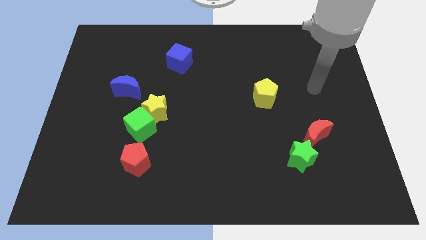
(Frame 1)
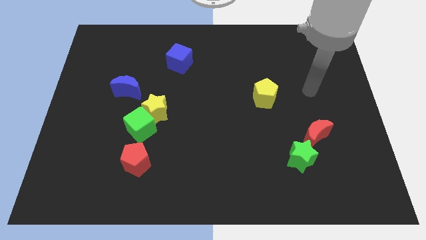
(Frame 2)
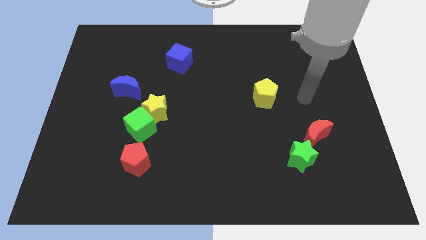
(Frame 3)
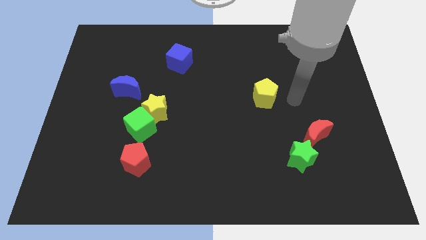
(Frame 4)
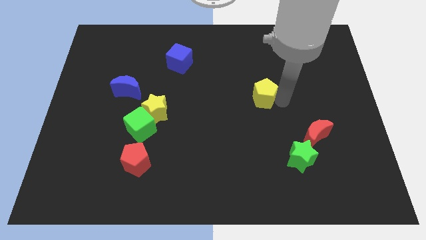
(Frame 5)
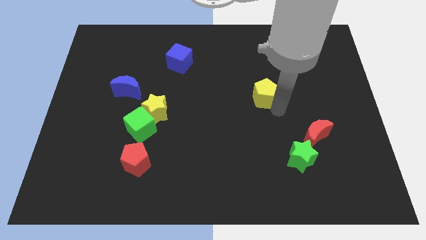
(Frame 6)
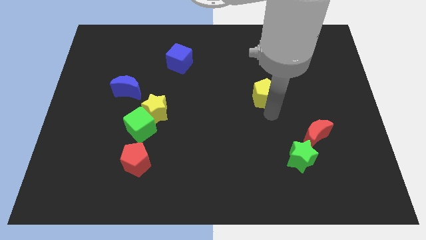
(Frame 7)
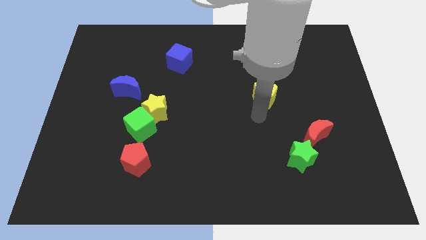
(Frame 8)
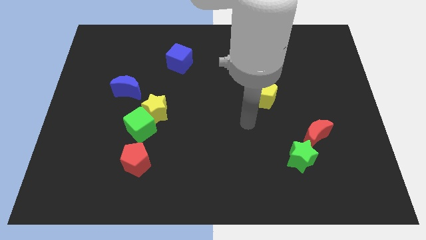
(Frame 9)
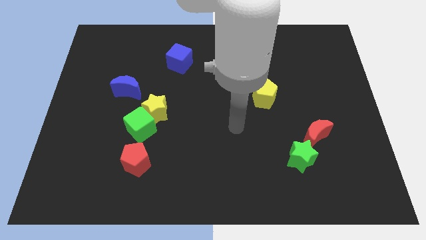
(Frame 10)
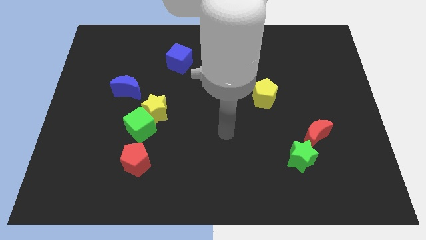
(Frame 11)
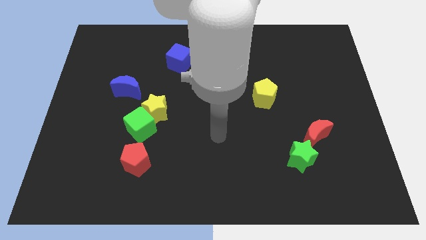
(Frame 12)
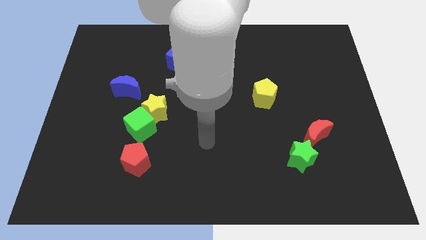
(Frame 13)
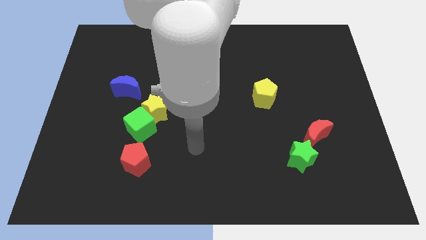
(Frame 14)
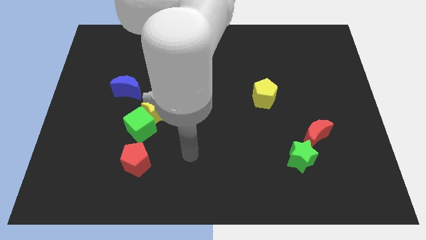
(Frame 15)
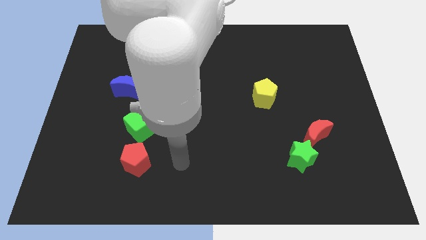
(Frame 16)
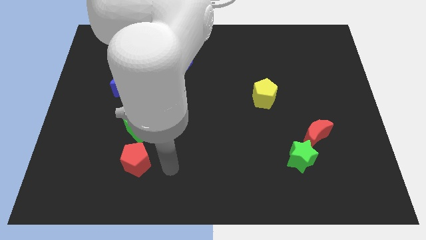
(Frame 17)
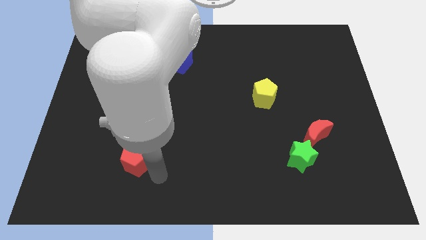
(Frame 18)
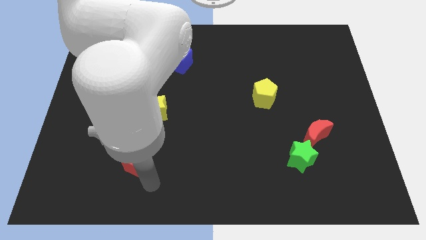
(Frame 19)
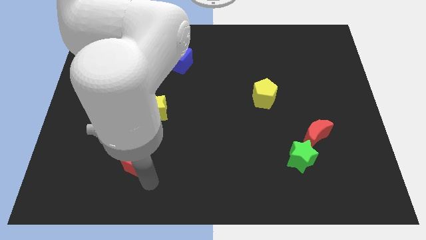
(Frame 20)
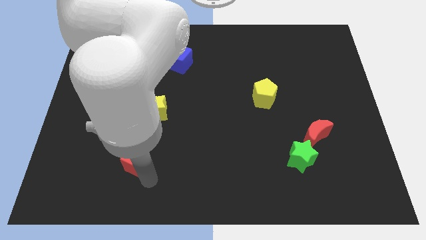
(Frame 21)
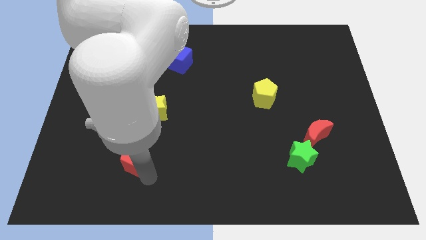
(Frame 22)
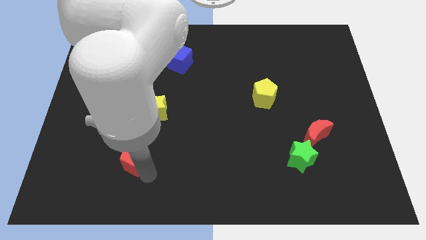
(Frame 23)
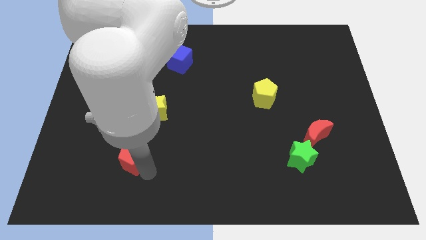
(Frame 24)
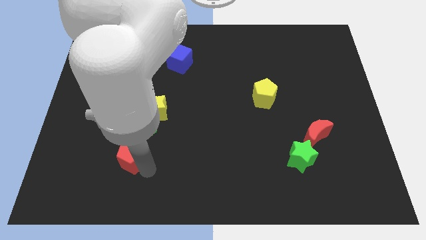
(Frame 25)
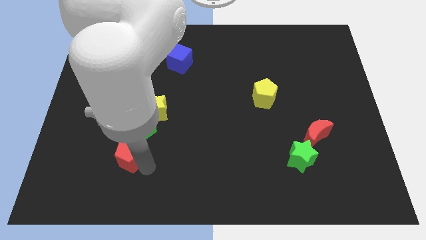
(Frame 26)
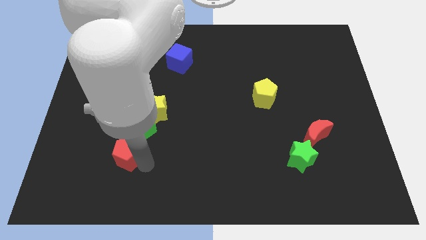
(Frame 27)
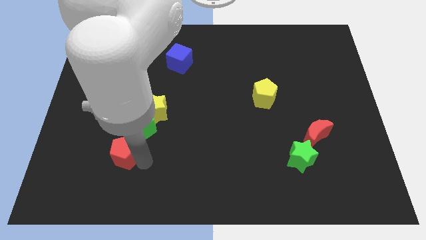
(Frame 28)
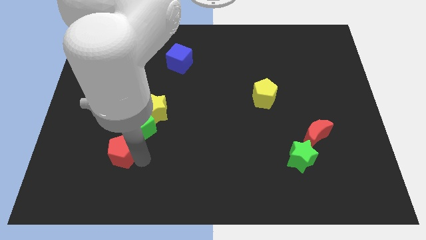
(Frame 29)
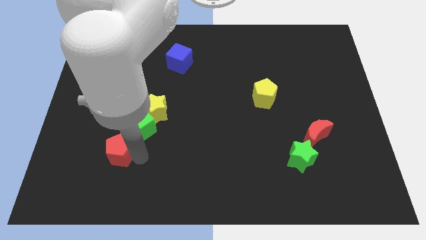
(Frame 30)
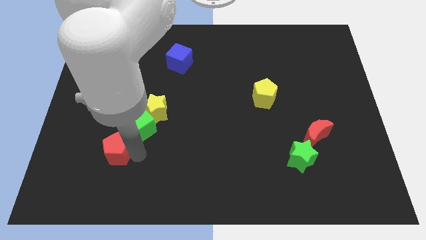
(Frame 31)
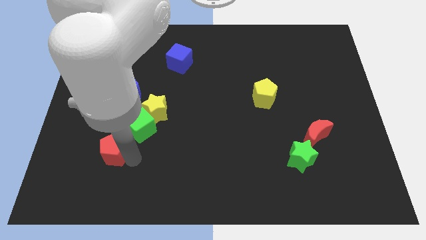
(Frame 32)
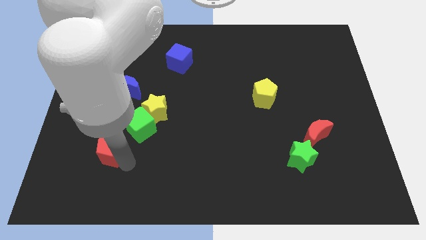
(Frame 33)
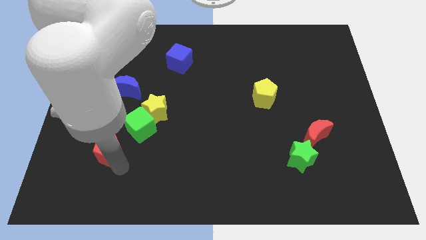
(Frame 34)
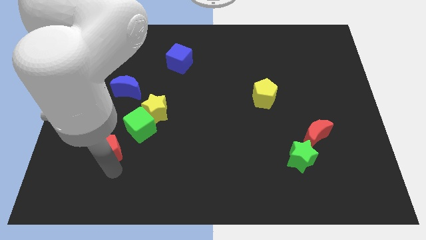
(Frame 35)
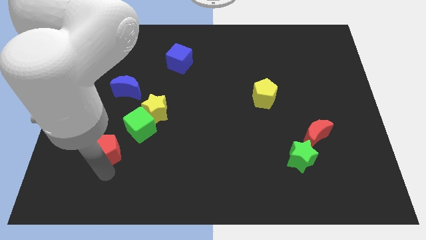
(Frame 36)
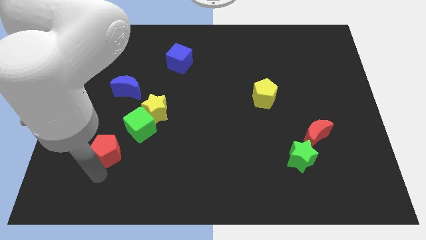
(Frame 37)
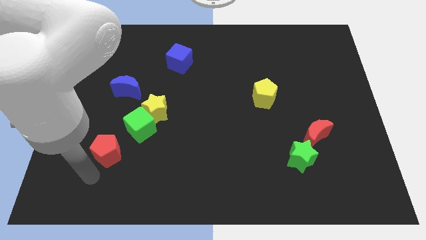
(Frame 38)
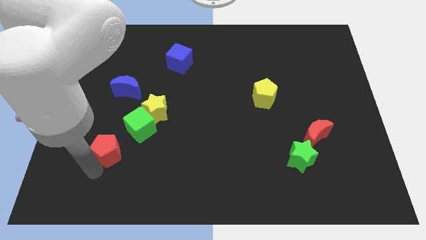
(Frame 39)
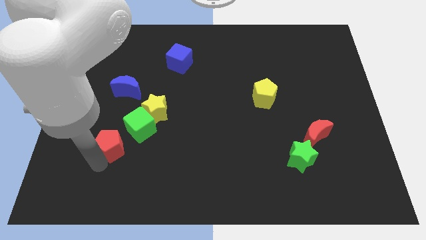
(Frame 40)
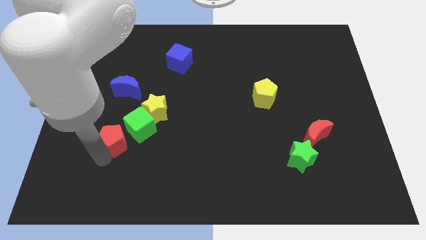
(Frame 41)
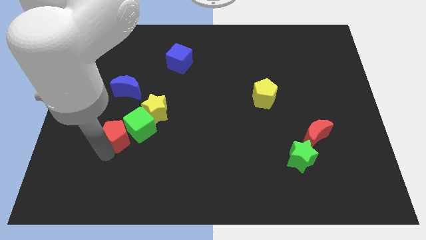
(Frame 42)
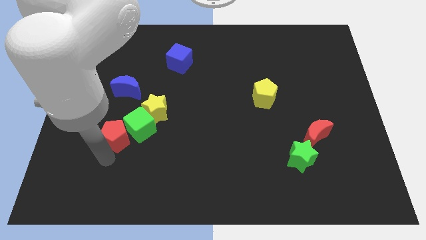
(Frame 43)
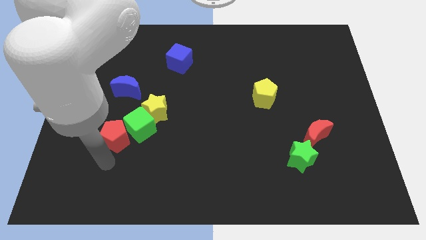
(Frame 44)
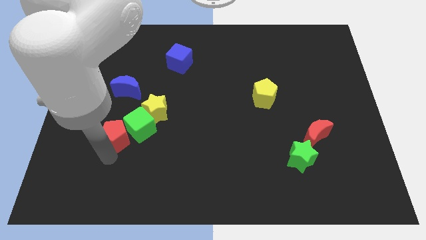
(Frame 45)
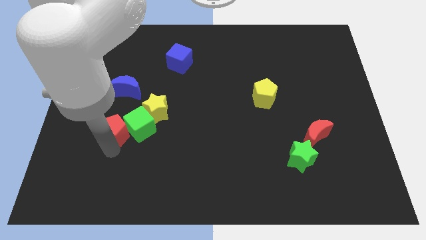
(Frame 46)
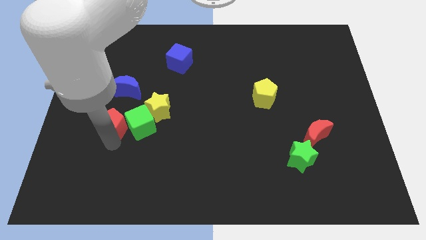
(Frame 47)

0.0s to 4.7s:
slightly slide the red pentagon upwards

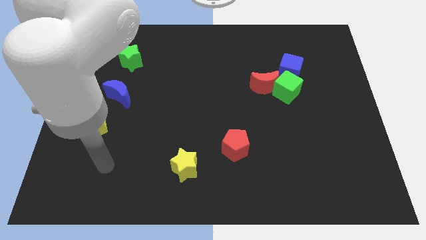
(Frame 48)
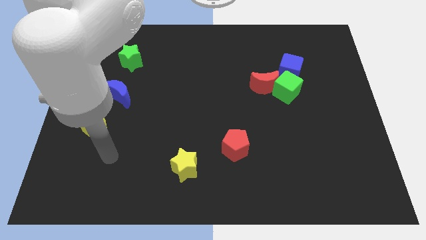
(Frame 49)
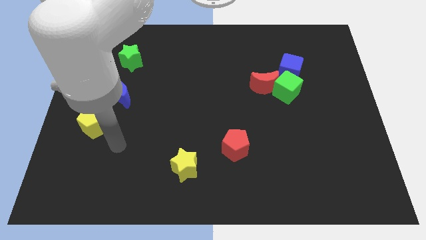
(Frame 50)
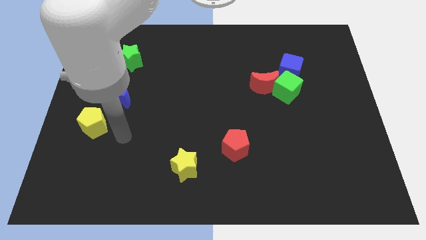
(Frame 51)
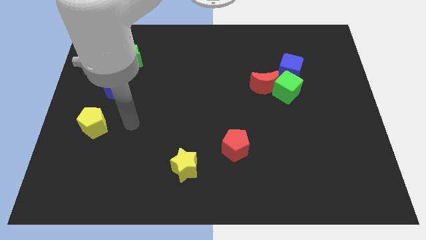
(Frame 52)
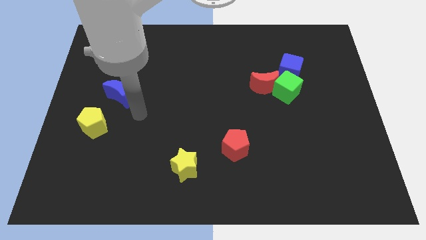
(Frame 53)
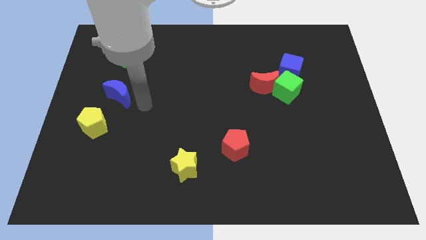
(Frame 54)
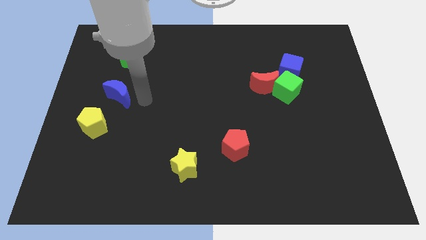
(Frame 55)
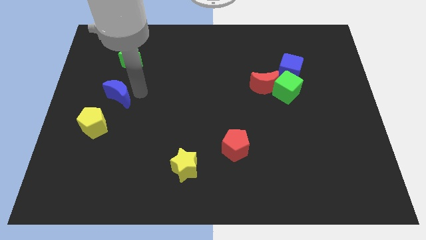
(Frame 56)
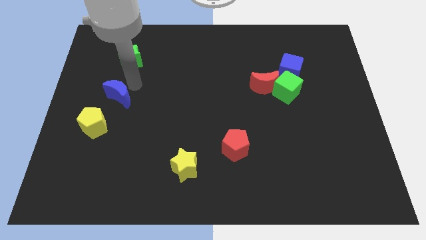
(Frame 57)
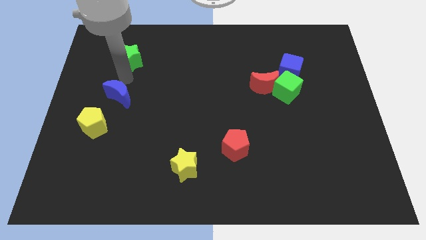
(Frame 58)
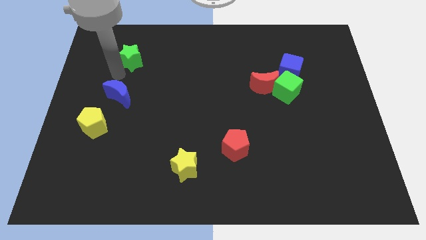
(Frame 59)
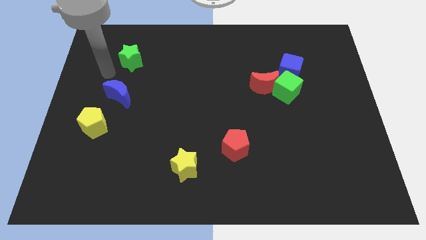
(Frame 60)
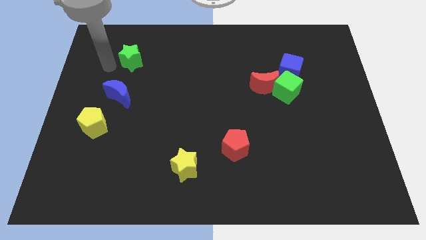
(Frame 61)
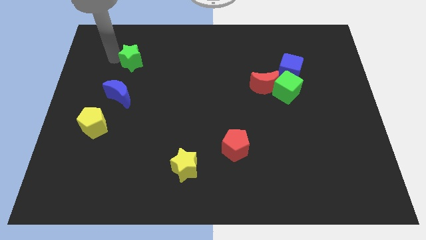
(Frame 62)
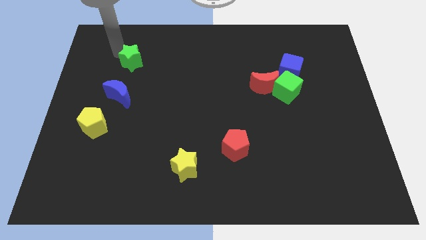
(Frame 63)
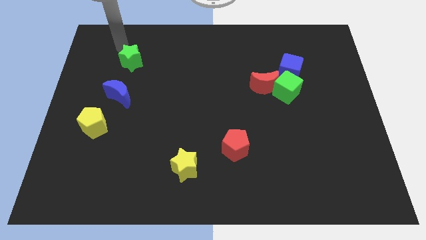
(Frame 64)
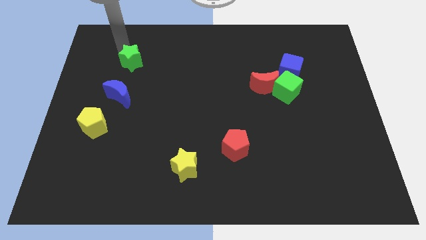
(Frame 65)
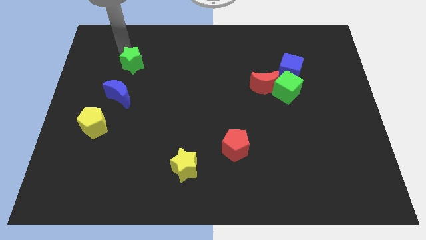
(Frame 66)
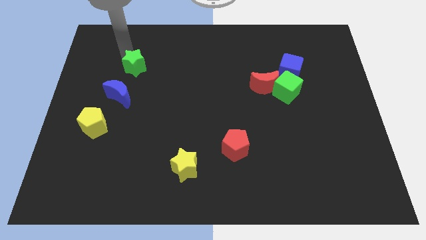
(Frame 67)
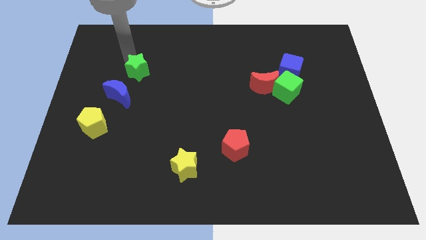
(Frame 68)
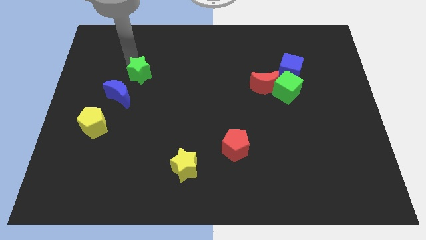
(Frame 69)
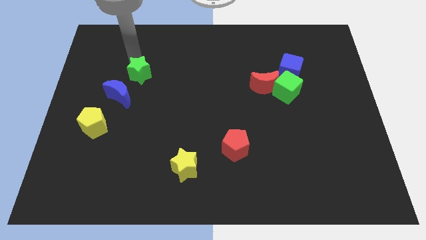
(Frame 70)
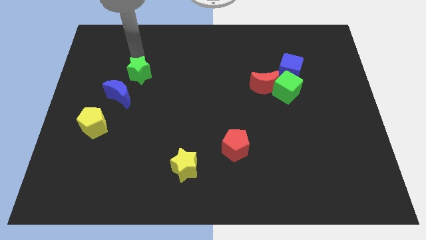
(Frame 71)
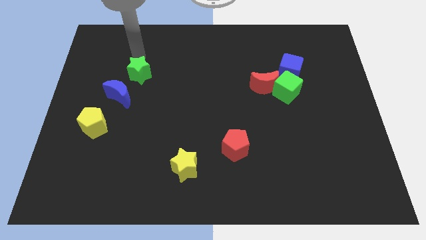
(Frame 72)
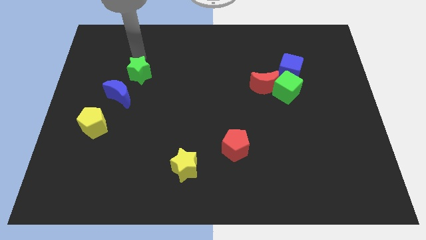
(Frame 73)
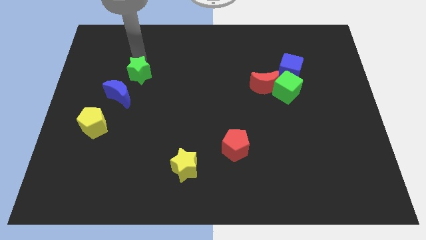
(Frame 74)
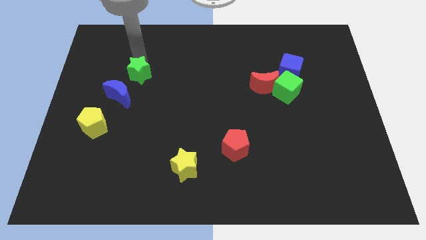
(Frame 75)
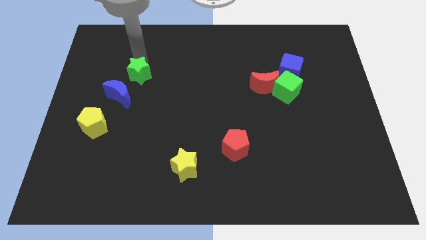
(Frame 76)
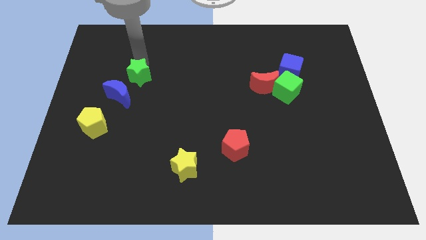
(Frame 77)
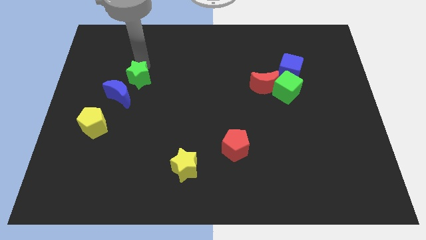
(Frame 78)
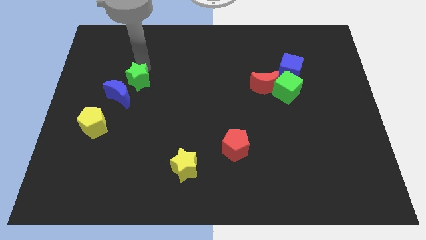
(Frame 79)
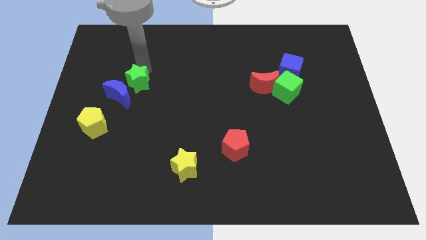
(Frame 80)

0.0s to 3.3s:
slightly move the green star down

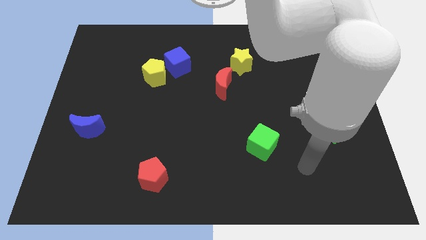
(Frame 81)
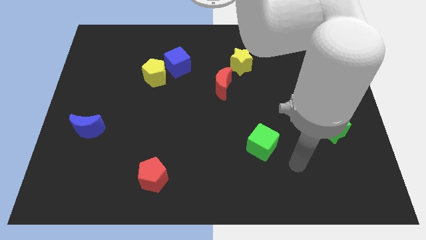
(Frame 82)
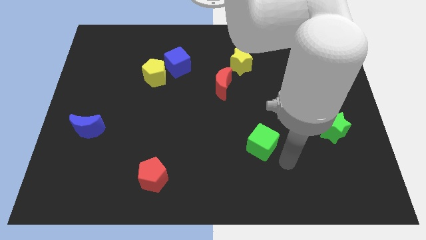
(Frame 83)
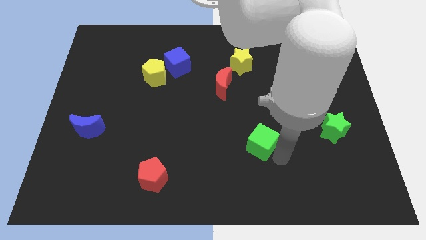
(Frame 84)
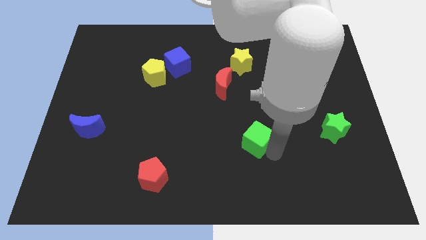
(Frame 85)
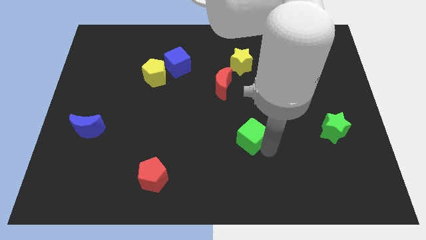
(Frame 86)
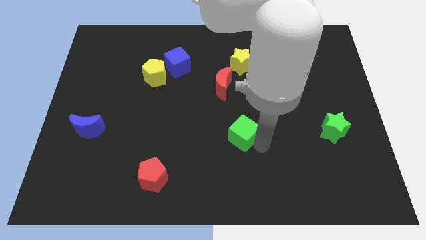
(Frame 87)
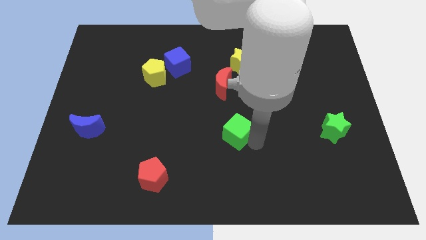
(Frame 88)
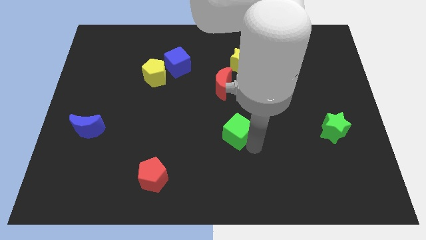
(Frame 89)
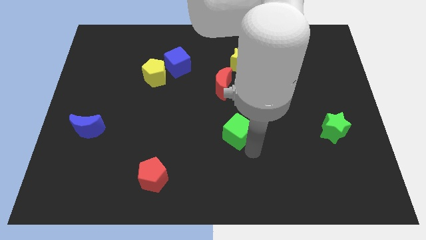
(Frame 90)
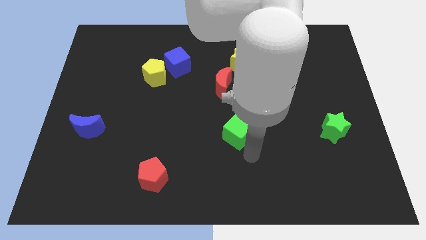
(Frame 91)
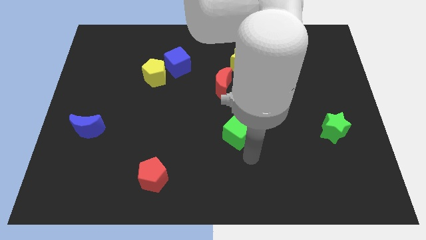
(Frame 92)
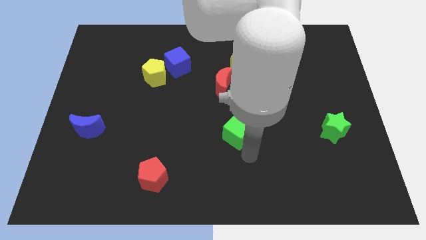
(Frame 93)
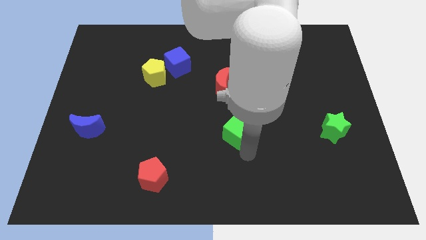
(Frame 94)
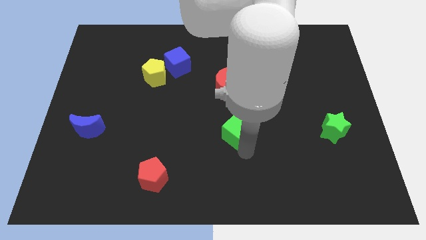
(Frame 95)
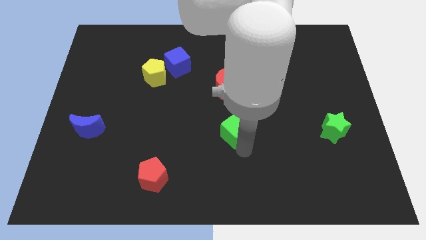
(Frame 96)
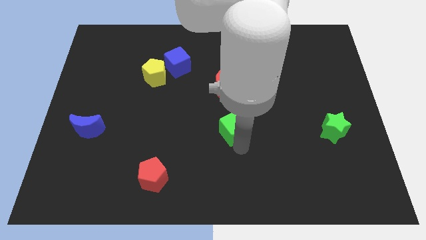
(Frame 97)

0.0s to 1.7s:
slightly push the green cube upwards and left
